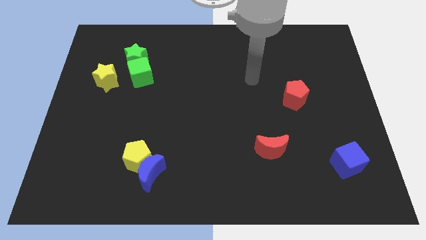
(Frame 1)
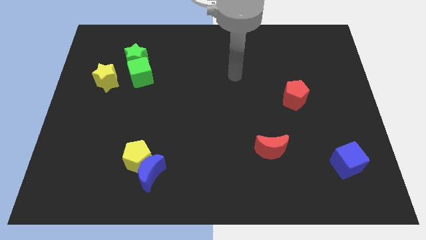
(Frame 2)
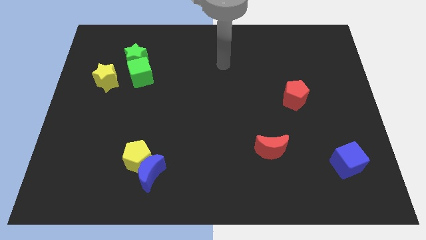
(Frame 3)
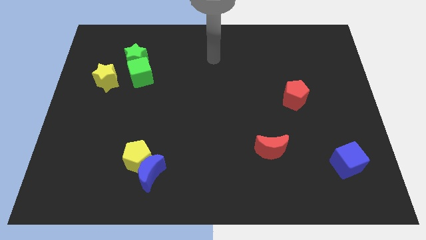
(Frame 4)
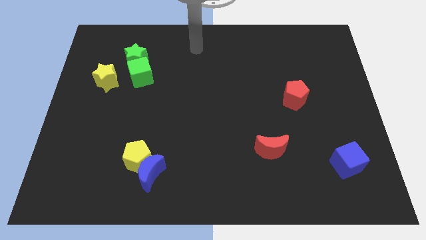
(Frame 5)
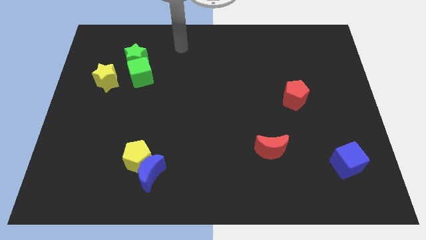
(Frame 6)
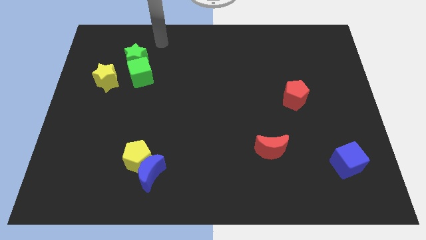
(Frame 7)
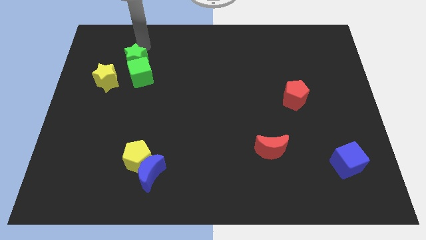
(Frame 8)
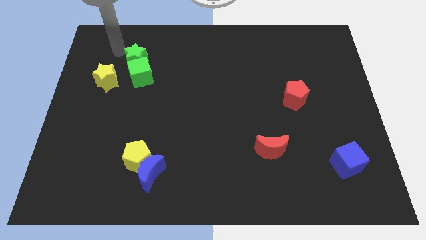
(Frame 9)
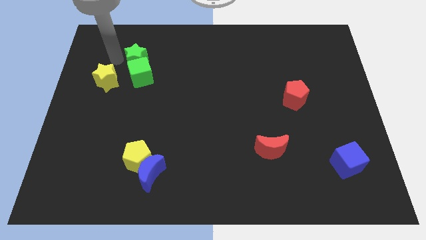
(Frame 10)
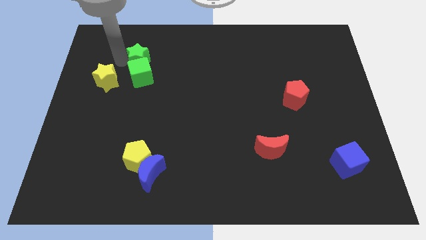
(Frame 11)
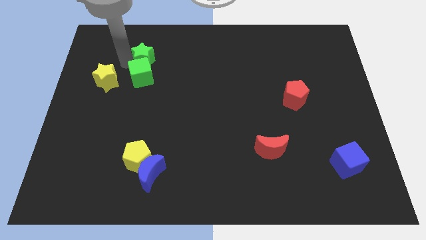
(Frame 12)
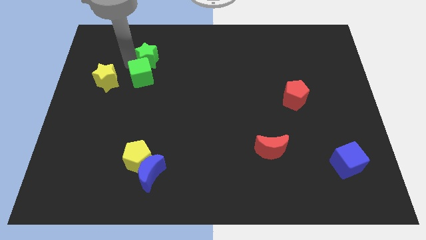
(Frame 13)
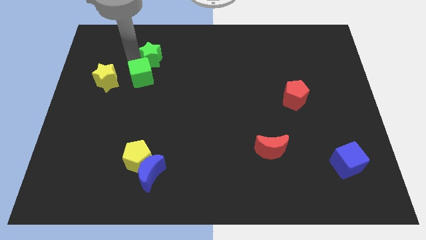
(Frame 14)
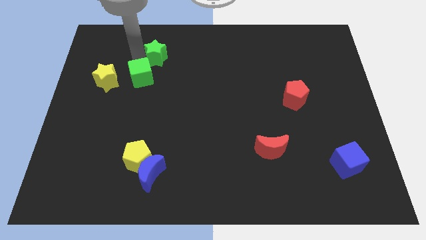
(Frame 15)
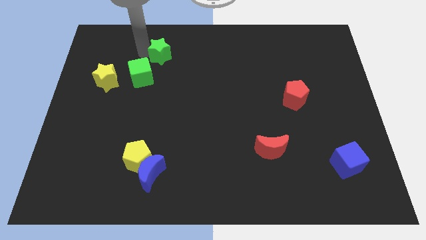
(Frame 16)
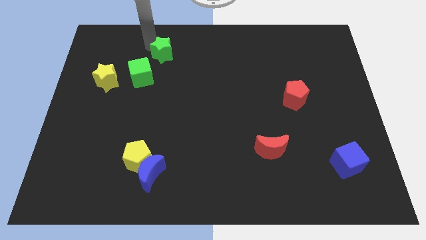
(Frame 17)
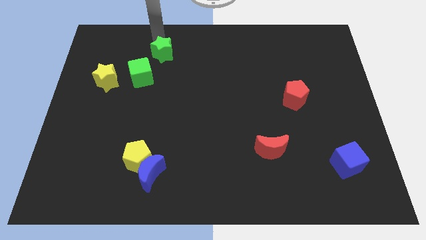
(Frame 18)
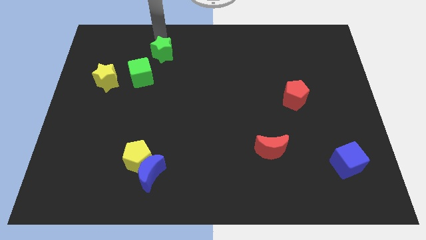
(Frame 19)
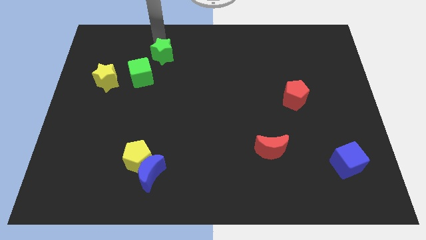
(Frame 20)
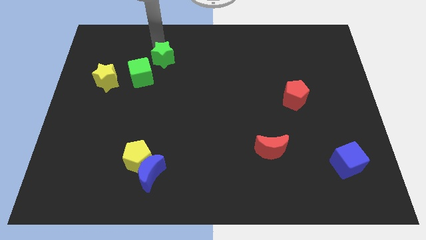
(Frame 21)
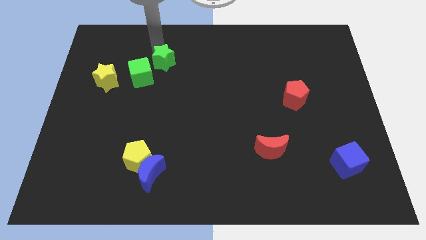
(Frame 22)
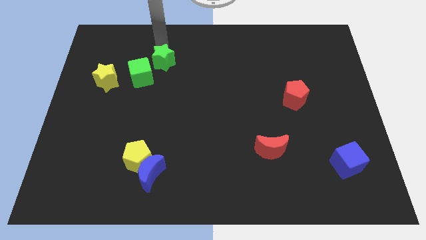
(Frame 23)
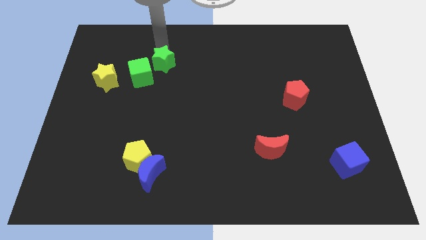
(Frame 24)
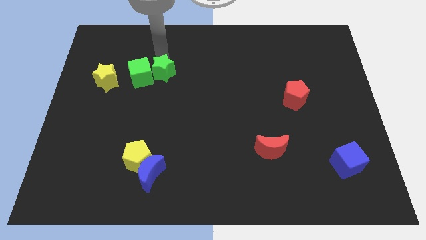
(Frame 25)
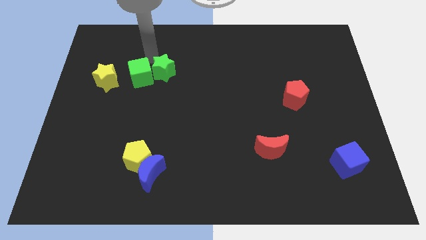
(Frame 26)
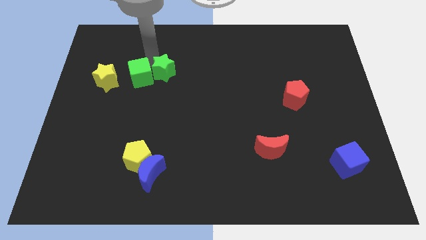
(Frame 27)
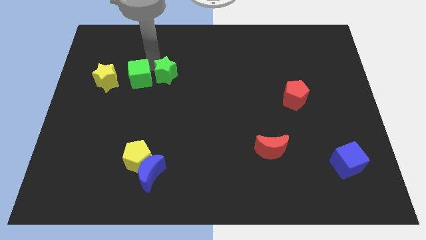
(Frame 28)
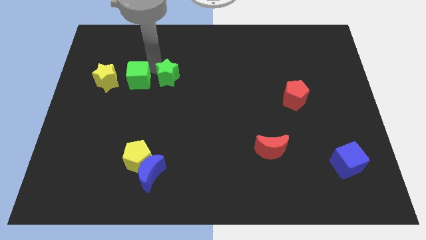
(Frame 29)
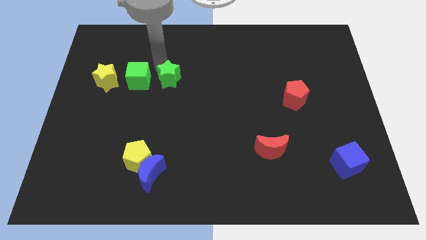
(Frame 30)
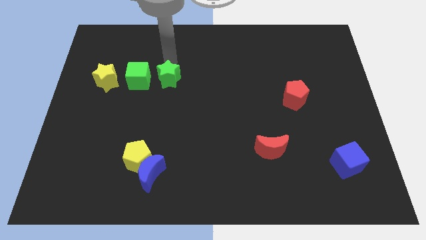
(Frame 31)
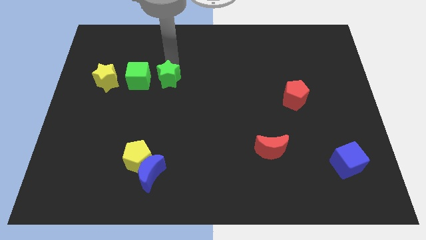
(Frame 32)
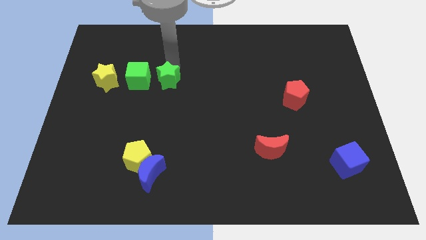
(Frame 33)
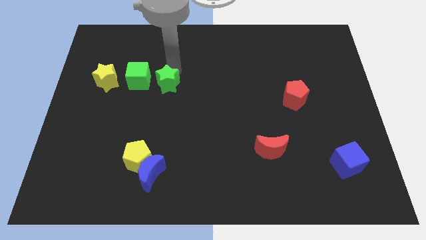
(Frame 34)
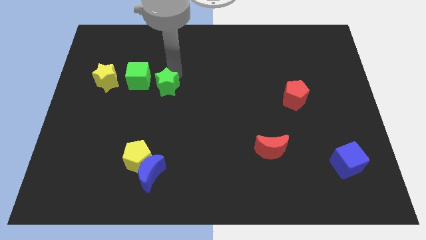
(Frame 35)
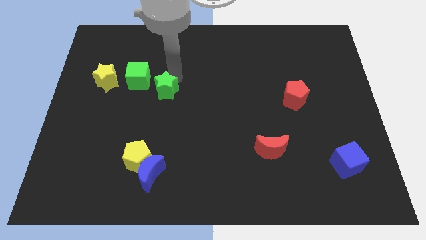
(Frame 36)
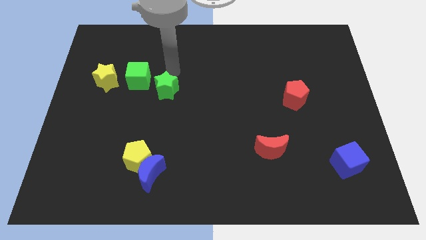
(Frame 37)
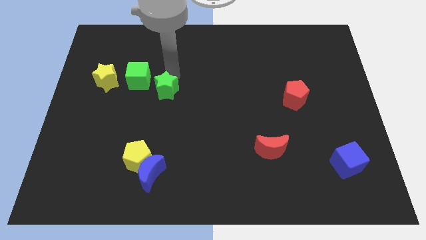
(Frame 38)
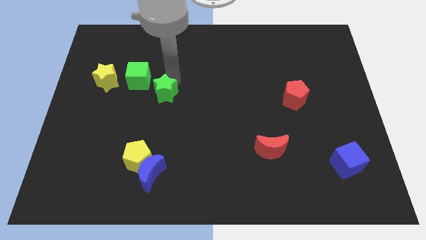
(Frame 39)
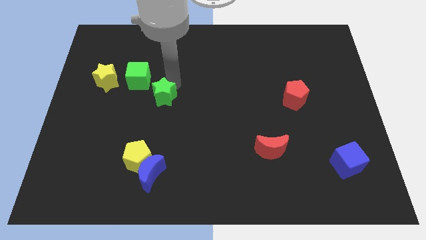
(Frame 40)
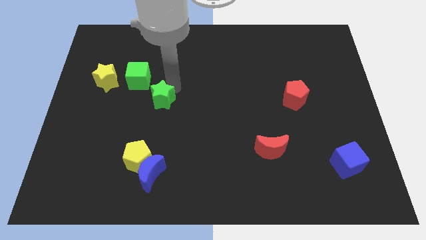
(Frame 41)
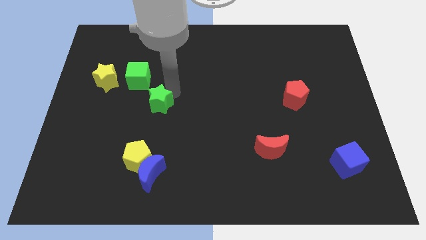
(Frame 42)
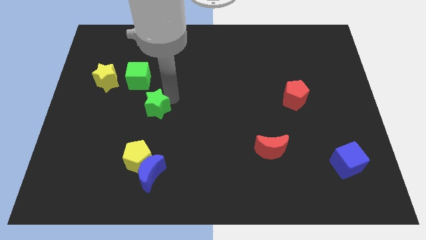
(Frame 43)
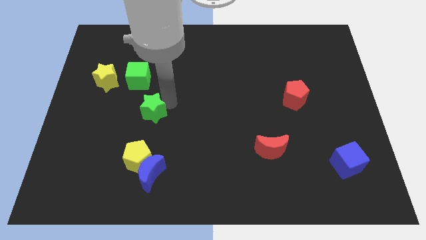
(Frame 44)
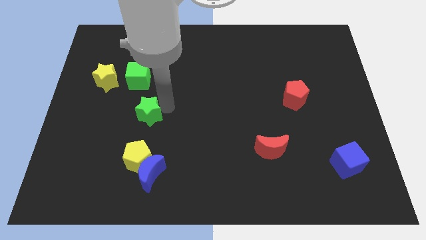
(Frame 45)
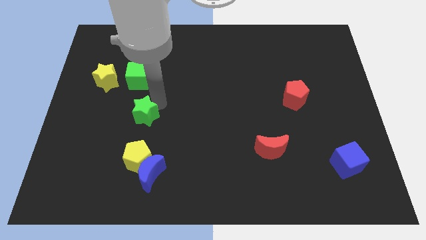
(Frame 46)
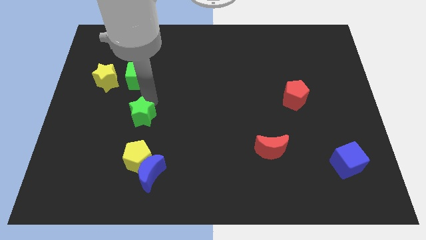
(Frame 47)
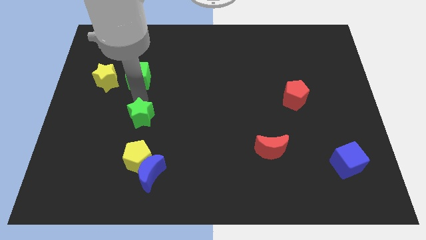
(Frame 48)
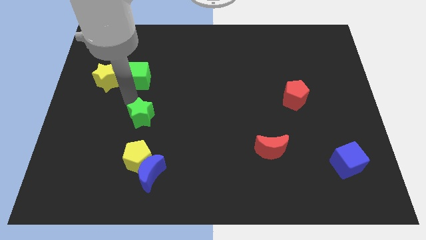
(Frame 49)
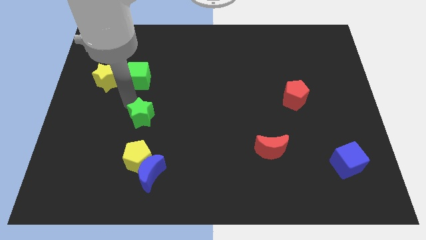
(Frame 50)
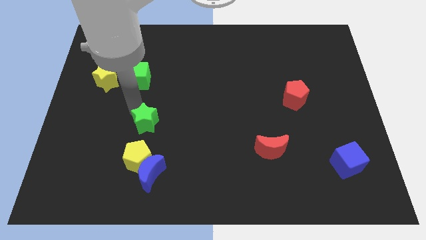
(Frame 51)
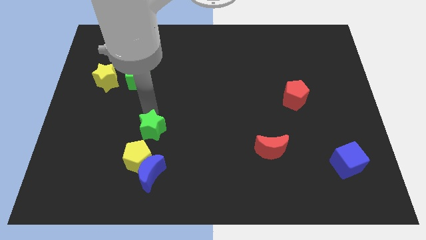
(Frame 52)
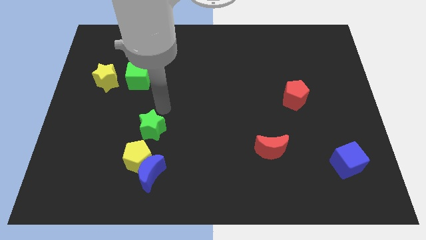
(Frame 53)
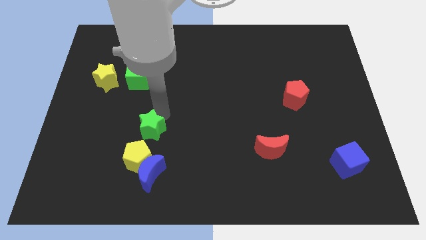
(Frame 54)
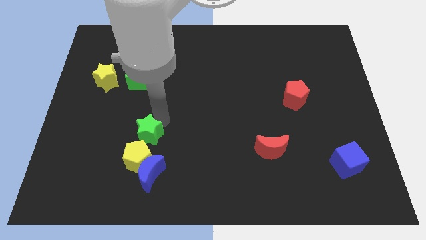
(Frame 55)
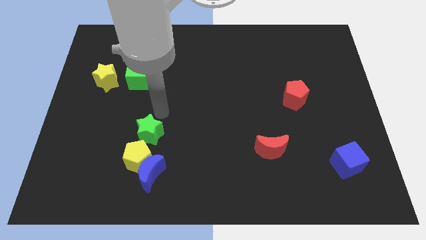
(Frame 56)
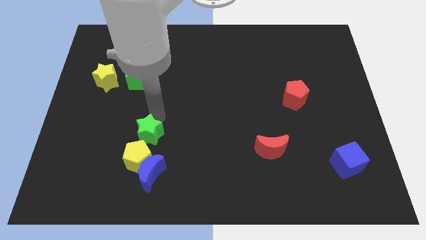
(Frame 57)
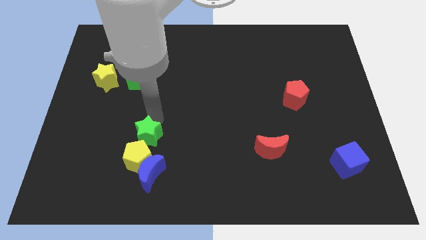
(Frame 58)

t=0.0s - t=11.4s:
move the green star close to the yellow pentagon

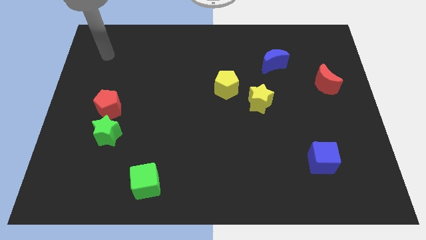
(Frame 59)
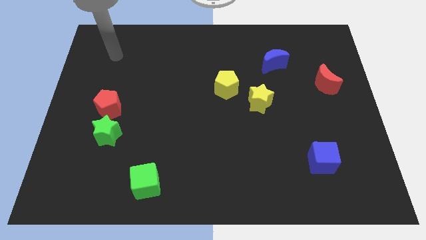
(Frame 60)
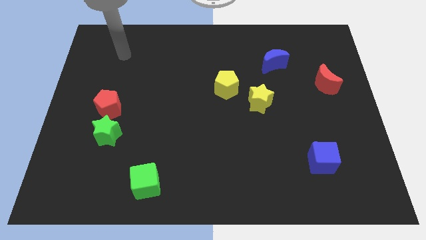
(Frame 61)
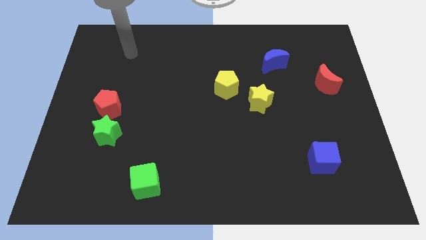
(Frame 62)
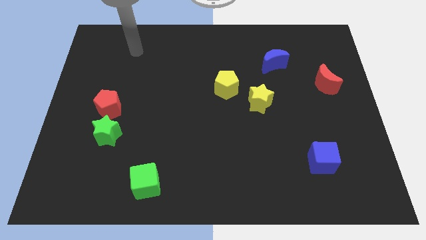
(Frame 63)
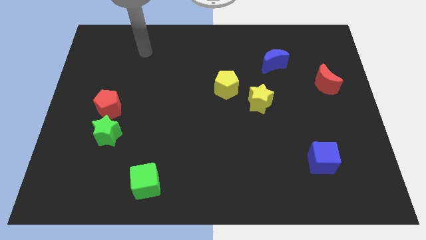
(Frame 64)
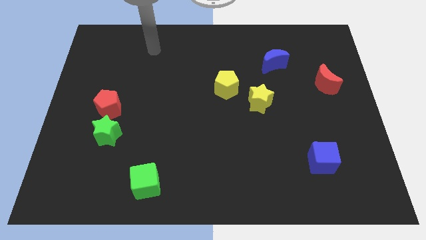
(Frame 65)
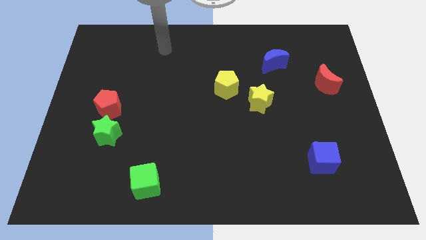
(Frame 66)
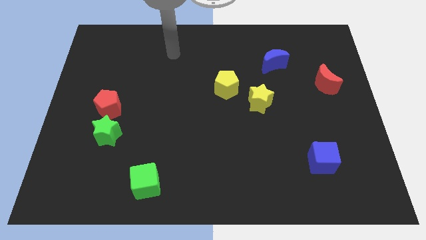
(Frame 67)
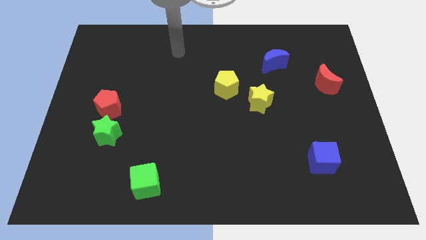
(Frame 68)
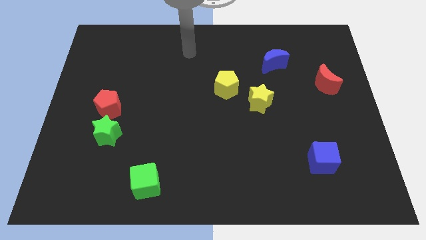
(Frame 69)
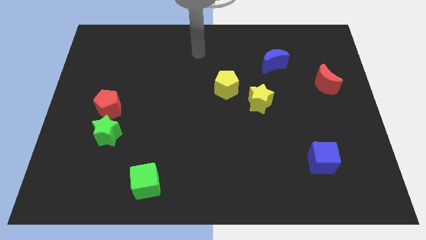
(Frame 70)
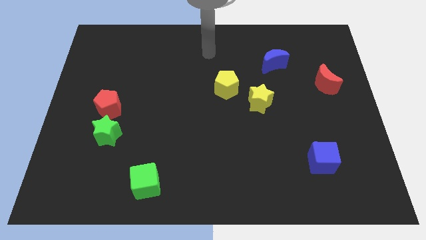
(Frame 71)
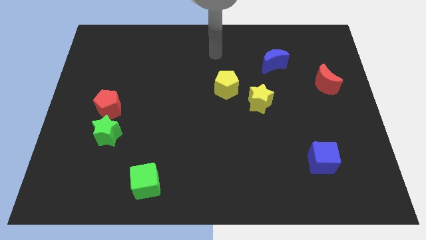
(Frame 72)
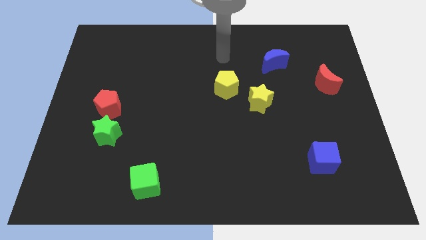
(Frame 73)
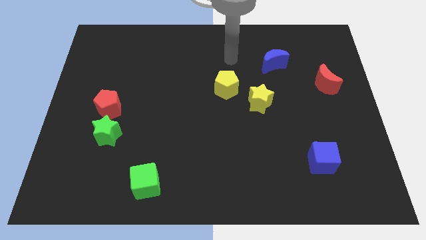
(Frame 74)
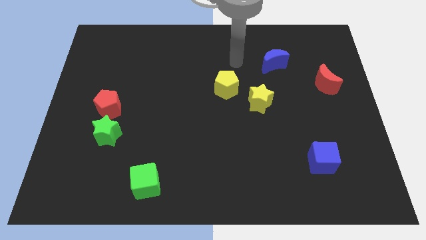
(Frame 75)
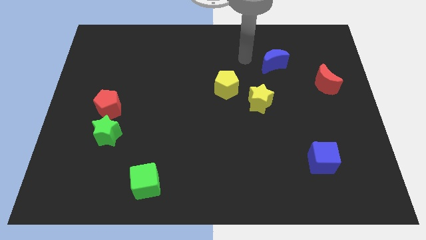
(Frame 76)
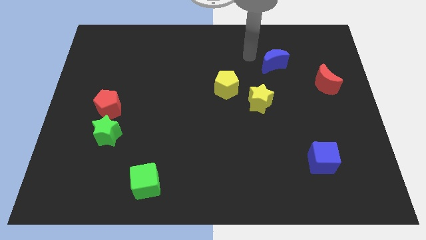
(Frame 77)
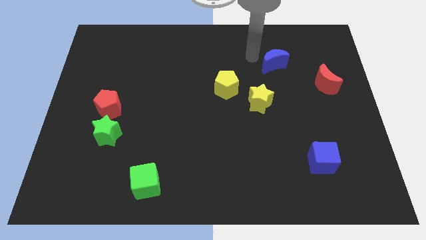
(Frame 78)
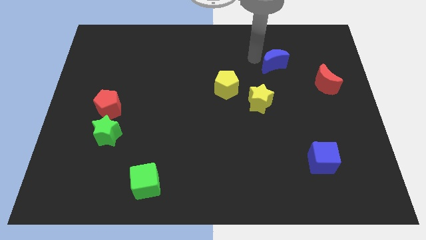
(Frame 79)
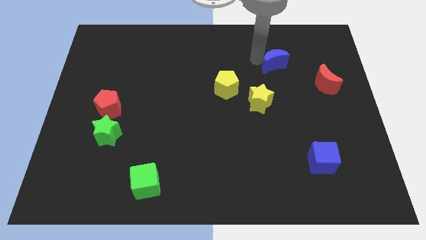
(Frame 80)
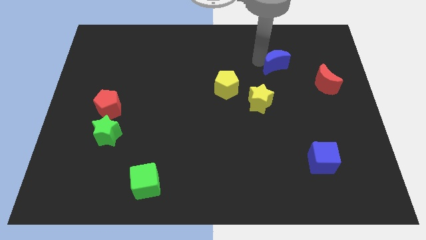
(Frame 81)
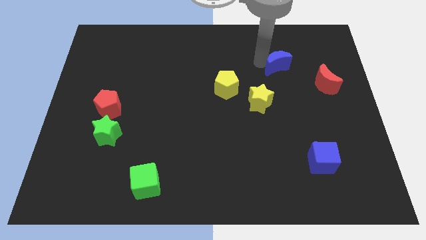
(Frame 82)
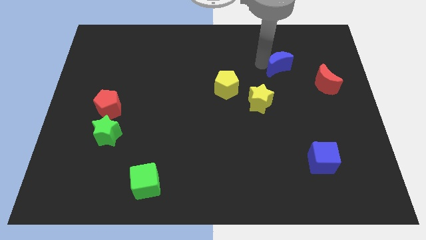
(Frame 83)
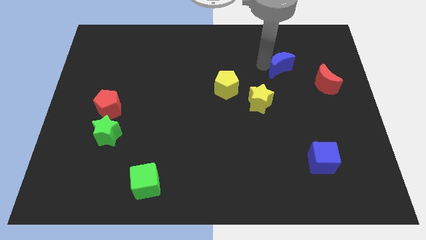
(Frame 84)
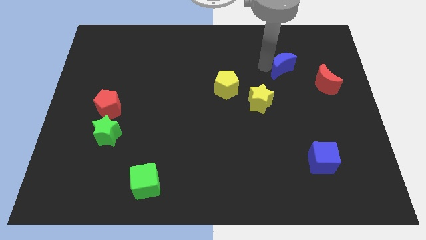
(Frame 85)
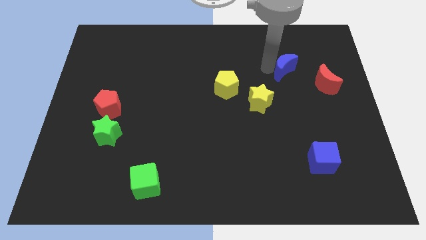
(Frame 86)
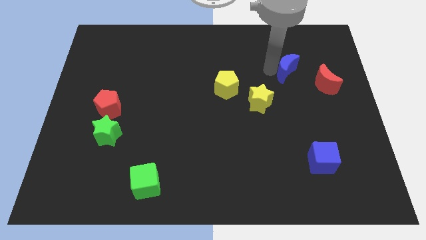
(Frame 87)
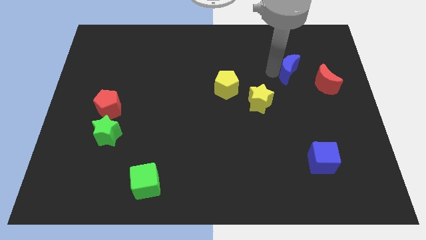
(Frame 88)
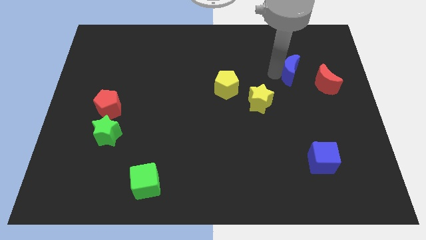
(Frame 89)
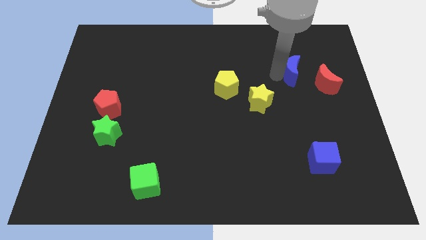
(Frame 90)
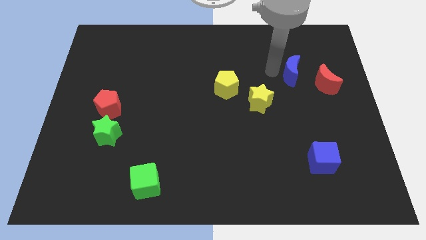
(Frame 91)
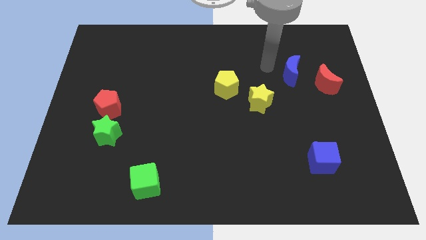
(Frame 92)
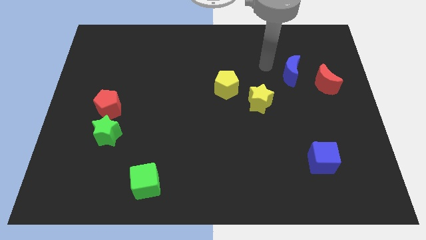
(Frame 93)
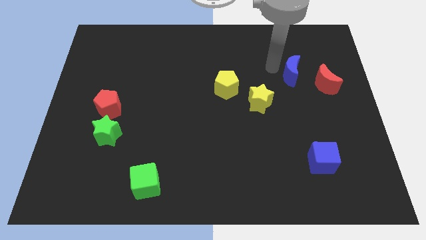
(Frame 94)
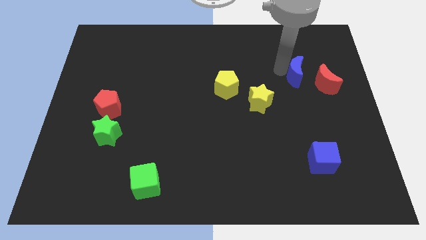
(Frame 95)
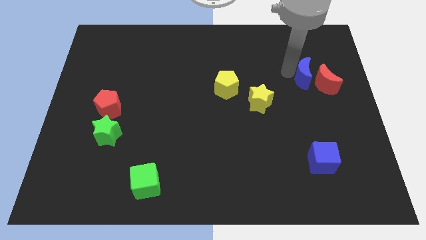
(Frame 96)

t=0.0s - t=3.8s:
push the blue moon towards the red moon
